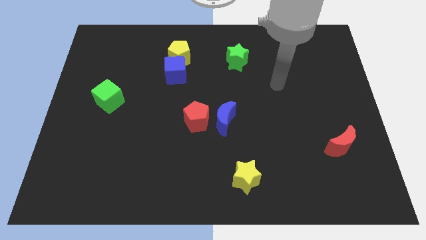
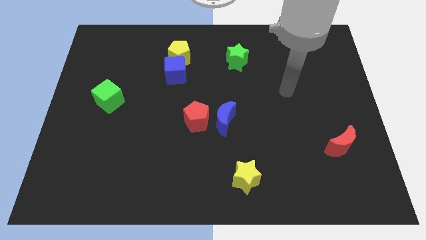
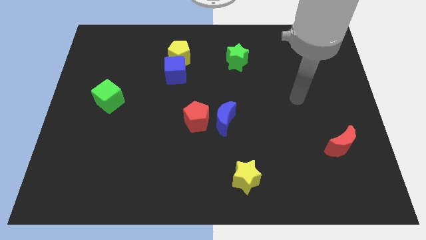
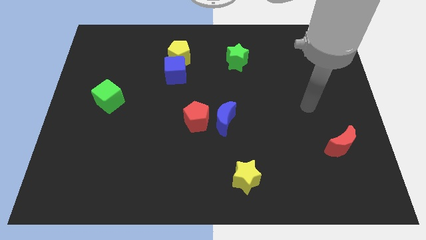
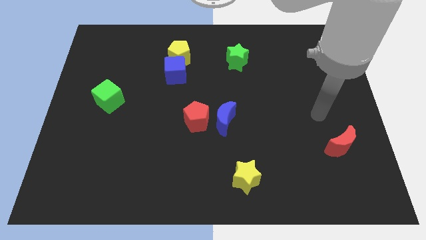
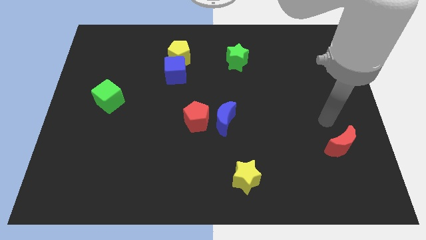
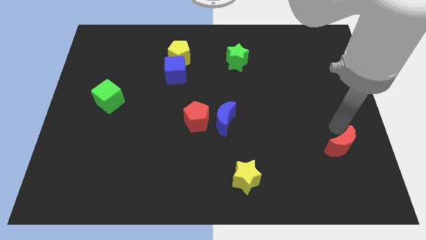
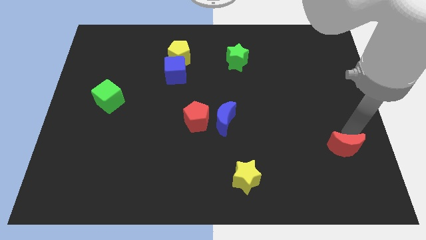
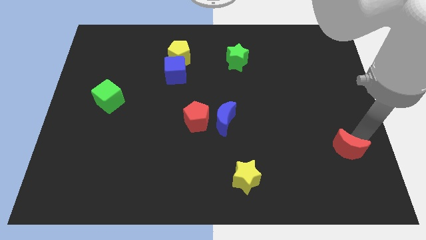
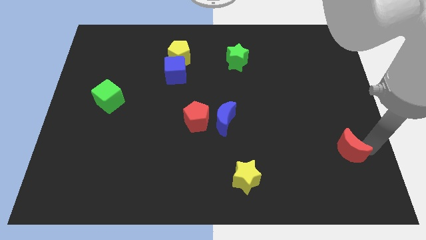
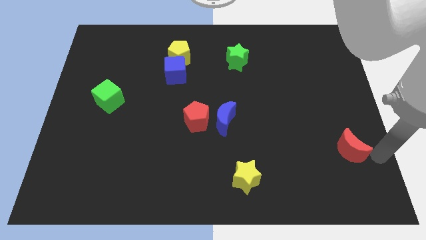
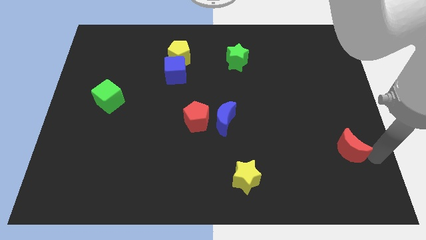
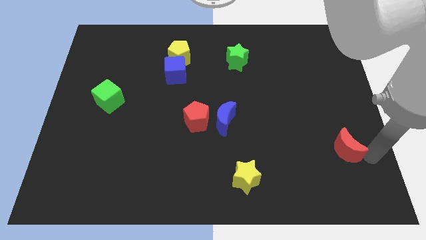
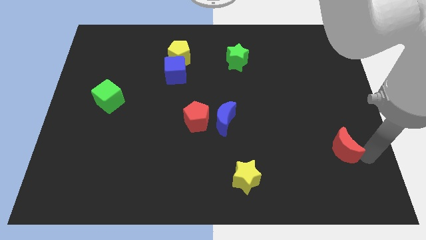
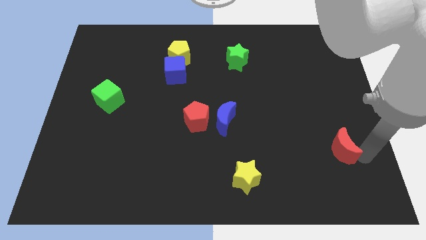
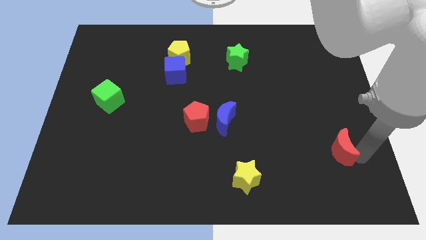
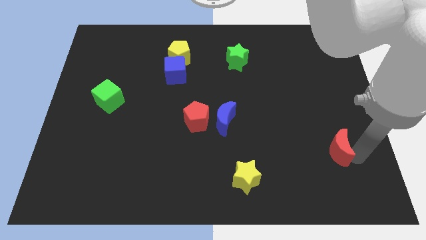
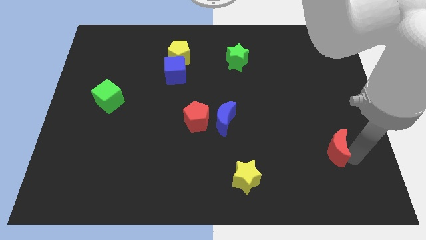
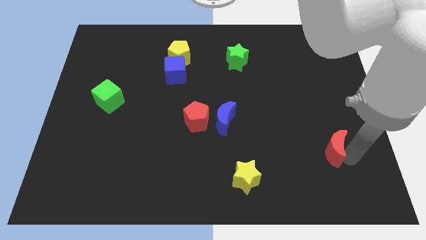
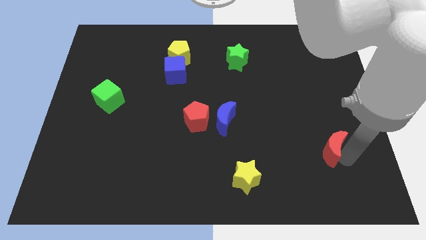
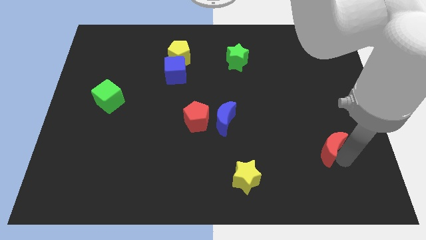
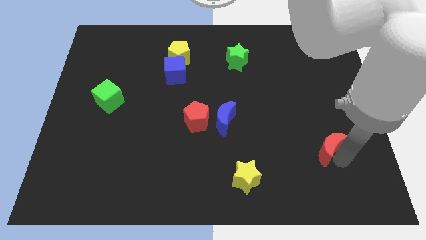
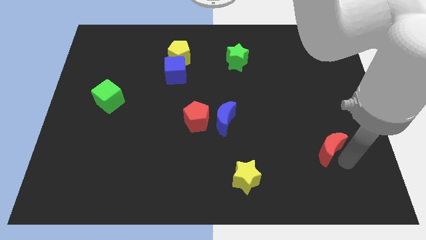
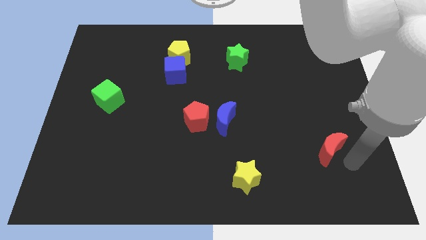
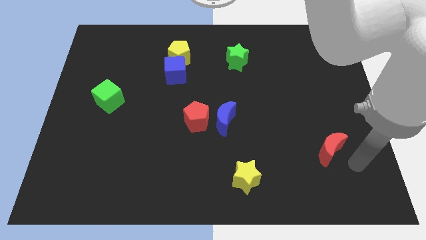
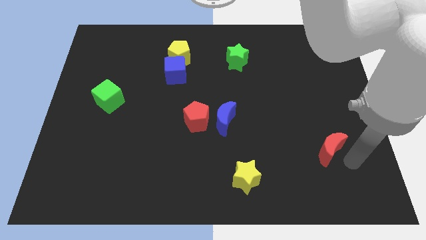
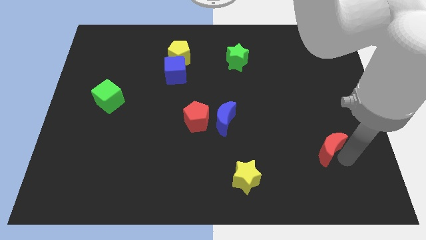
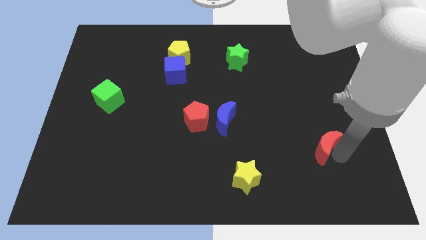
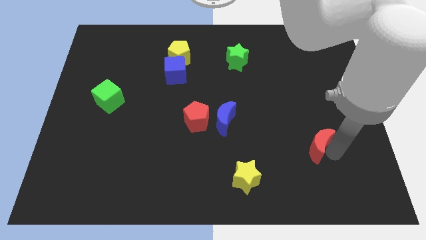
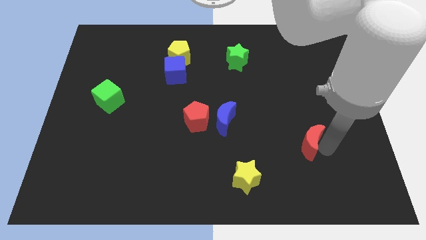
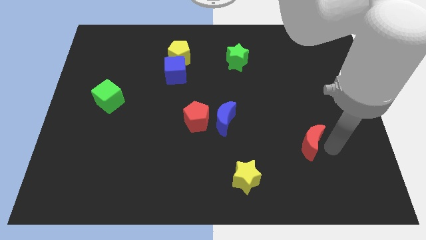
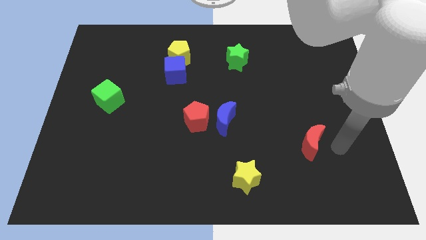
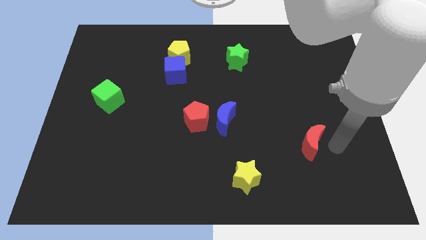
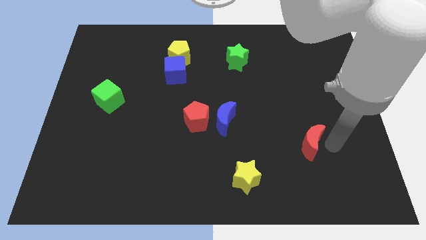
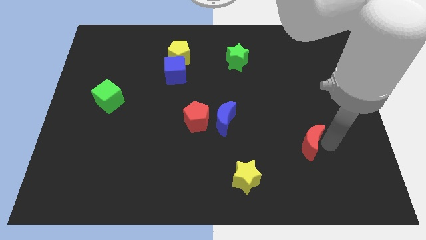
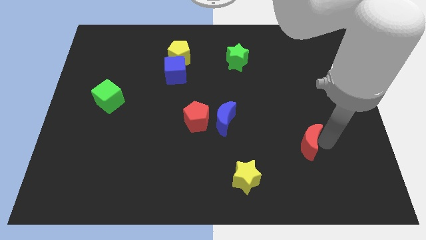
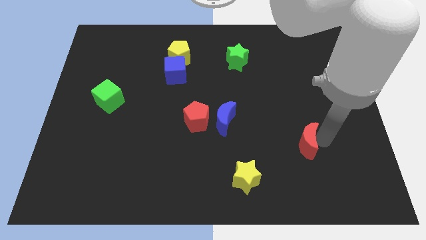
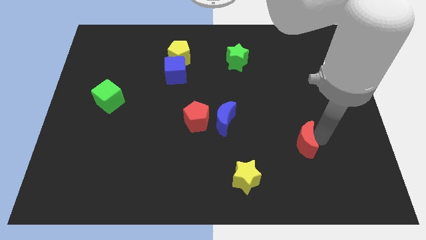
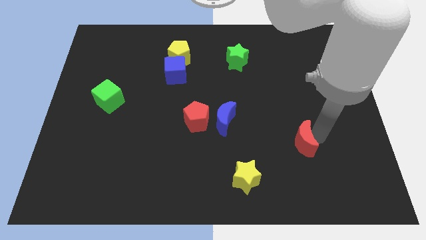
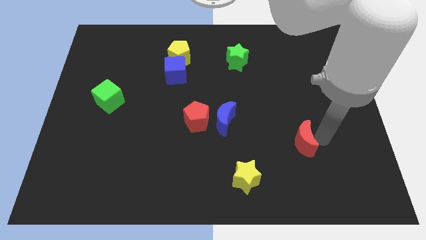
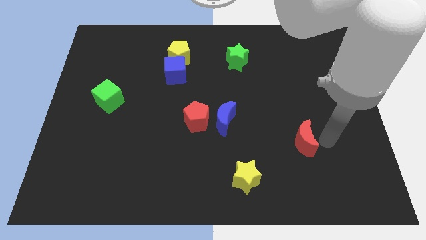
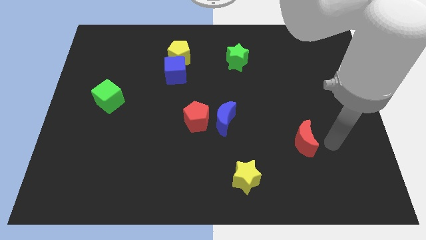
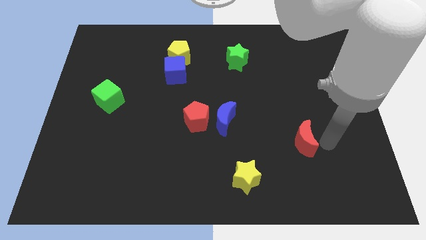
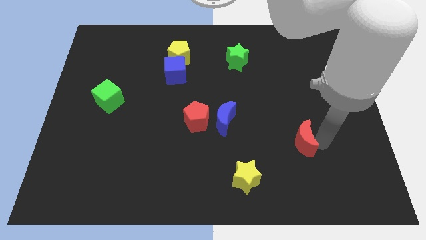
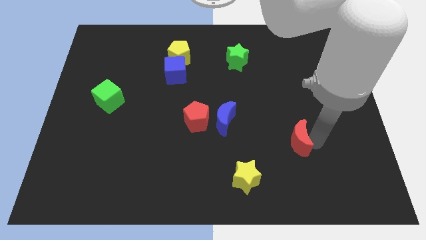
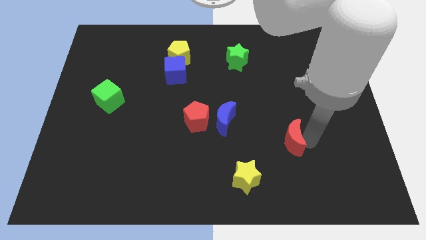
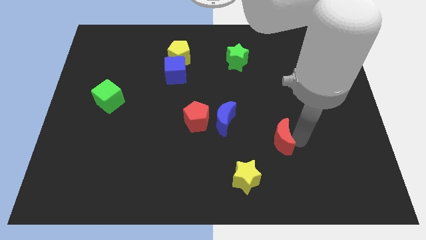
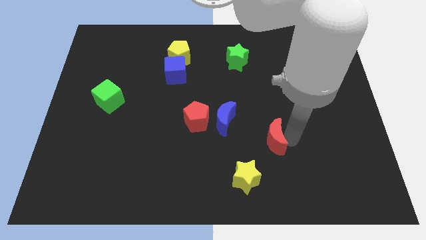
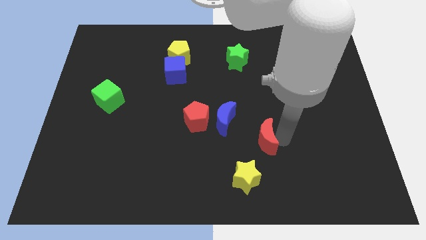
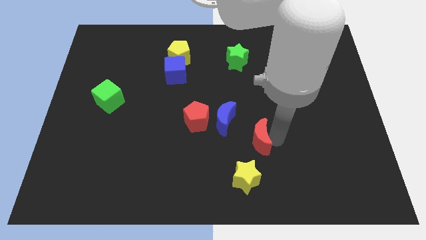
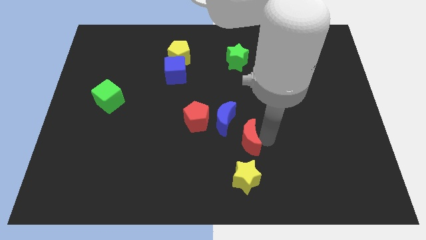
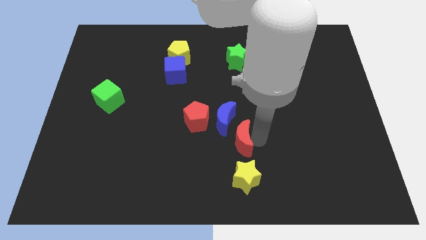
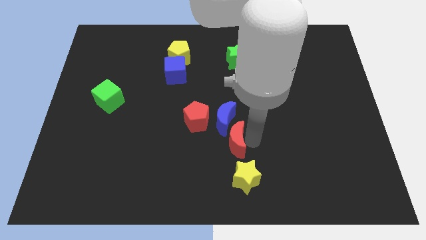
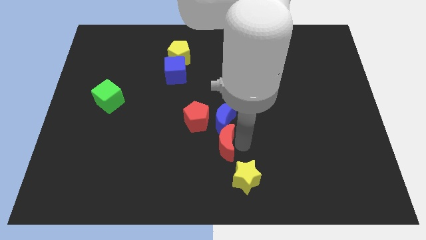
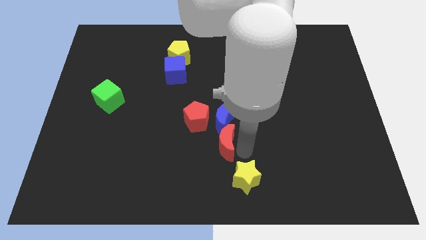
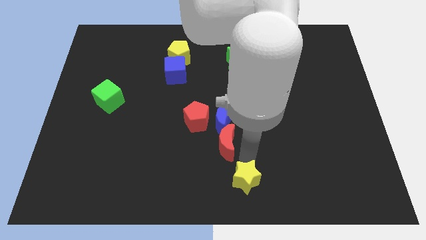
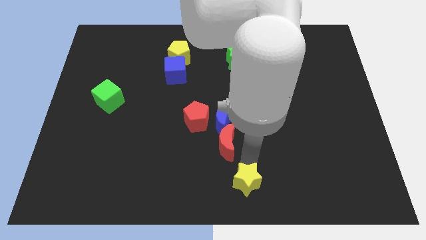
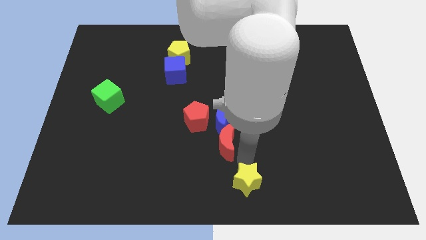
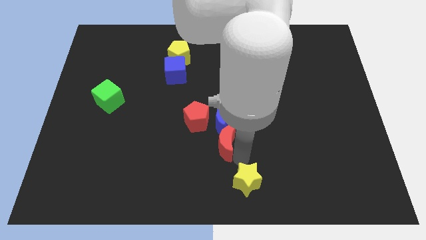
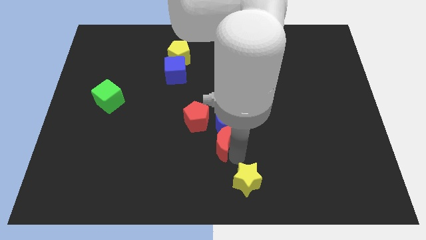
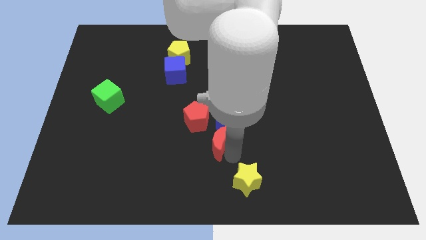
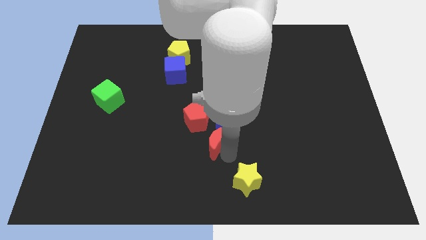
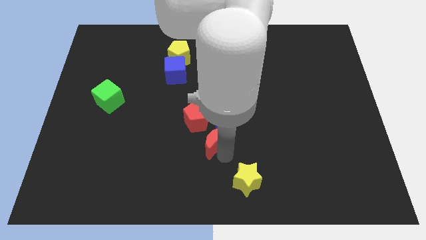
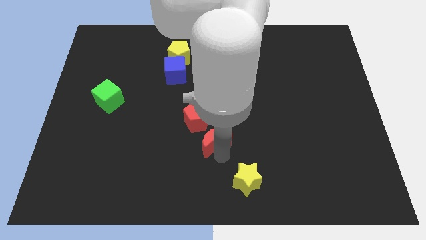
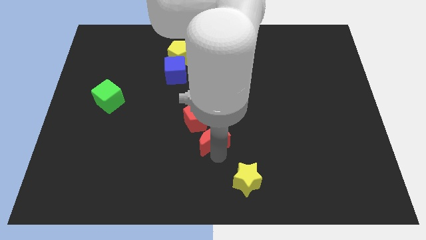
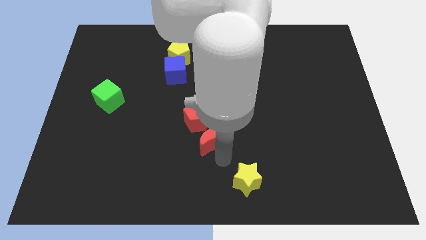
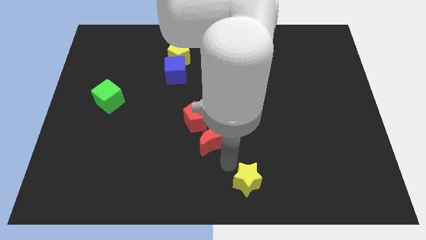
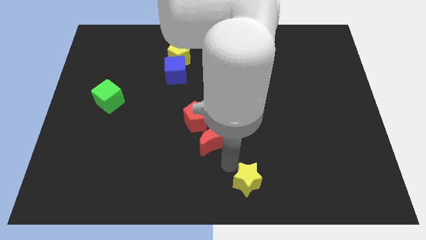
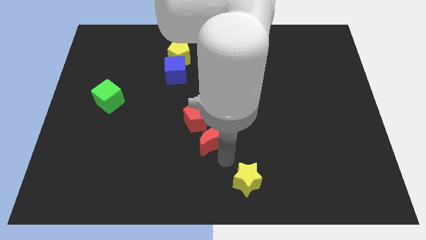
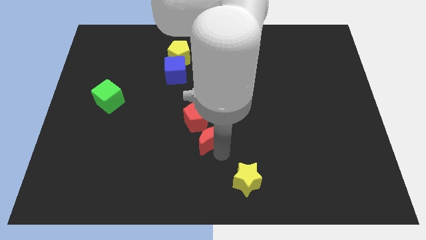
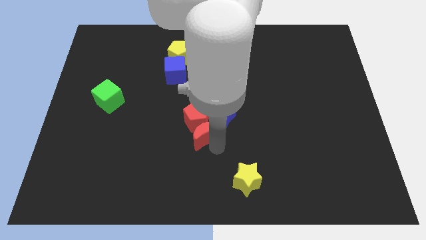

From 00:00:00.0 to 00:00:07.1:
move the red moon close to the red pentagon
